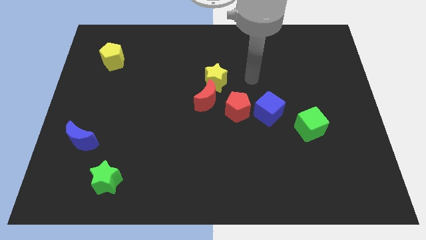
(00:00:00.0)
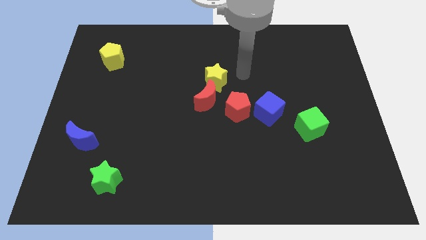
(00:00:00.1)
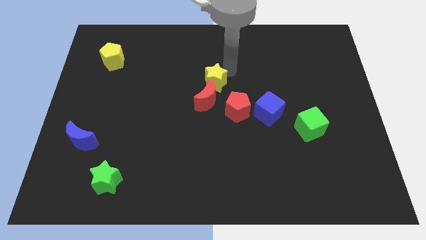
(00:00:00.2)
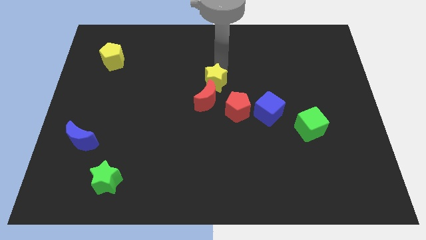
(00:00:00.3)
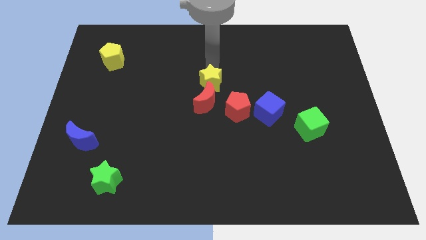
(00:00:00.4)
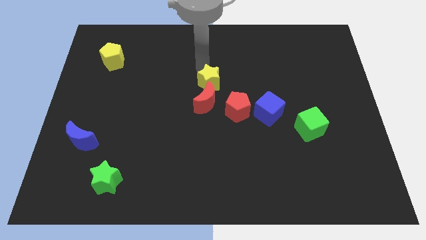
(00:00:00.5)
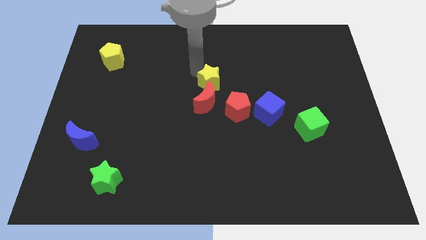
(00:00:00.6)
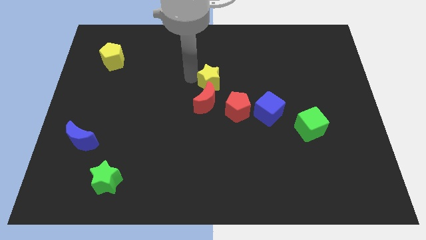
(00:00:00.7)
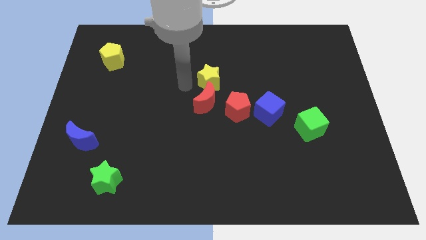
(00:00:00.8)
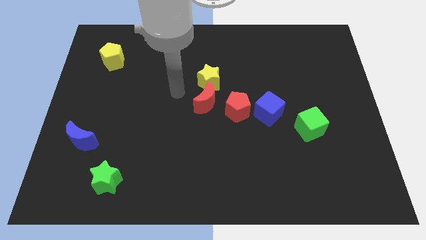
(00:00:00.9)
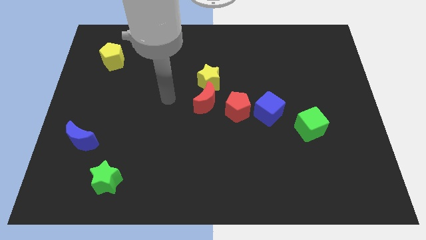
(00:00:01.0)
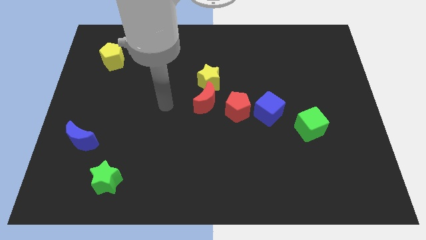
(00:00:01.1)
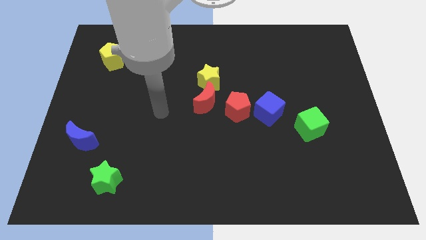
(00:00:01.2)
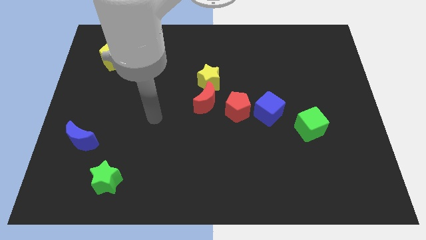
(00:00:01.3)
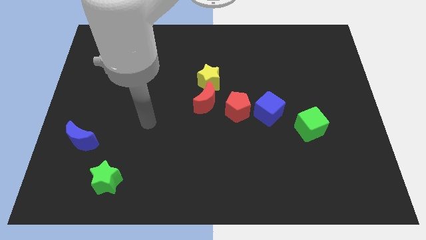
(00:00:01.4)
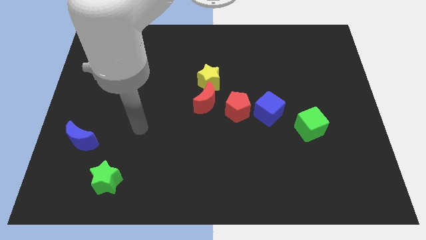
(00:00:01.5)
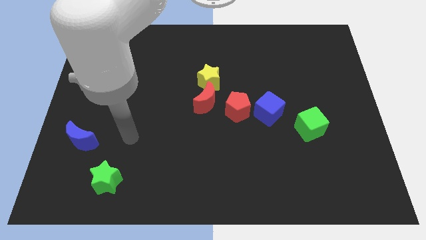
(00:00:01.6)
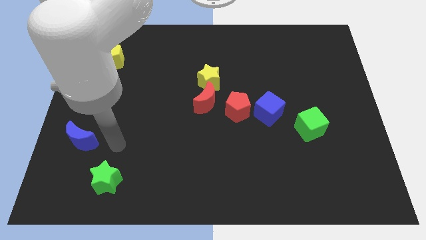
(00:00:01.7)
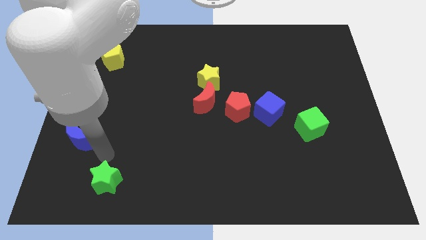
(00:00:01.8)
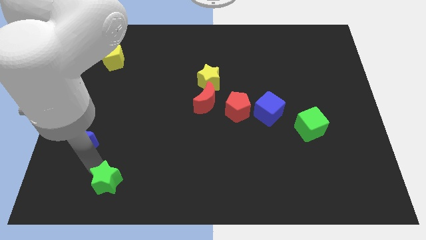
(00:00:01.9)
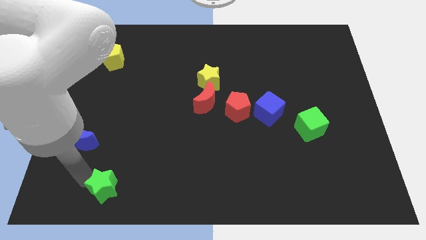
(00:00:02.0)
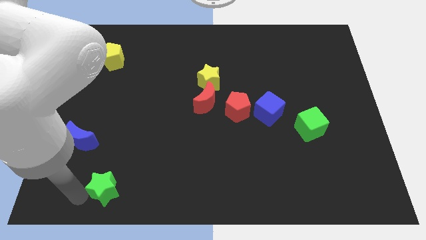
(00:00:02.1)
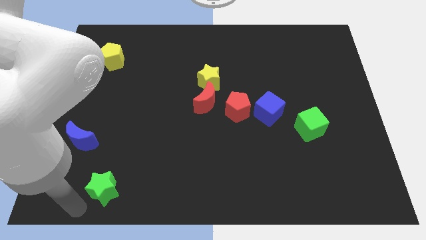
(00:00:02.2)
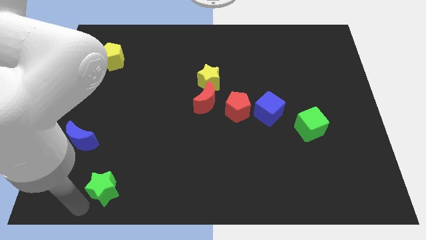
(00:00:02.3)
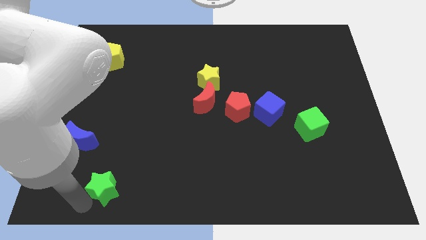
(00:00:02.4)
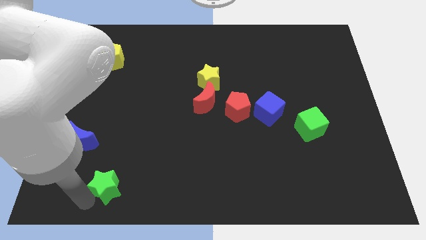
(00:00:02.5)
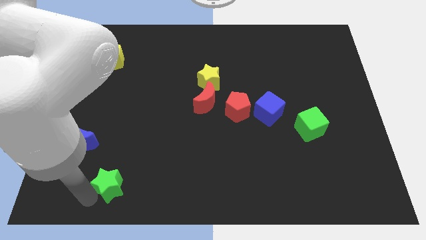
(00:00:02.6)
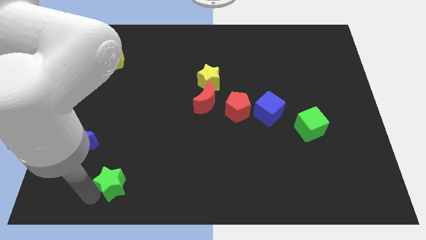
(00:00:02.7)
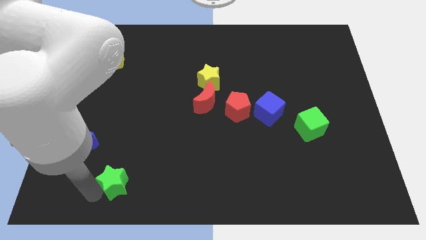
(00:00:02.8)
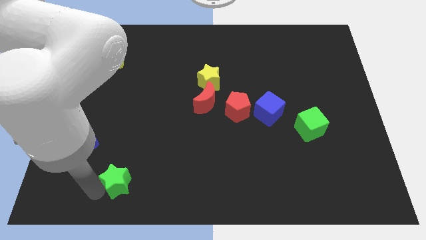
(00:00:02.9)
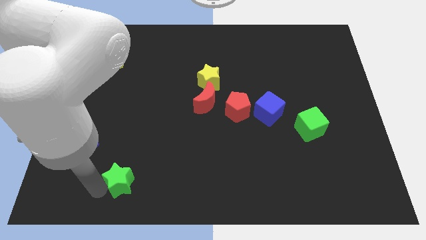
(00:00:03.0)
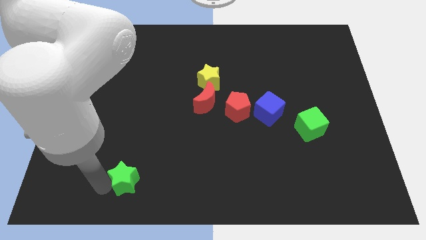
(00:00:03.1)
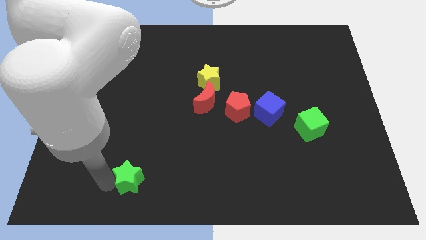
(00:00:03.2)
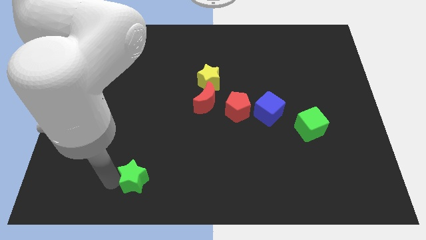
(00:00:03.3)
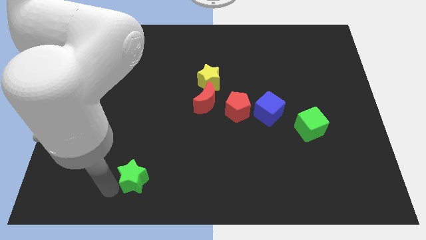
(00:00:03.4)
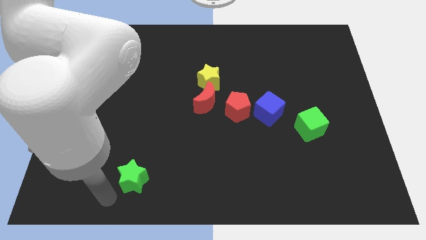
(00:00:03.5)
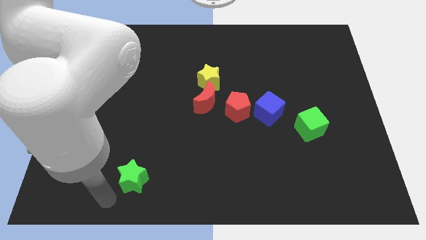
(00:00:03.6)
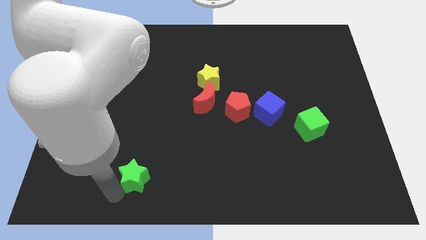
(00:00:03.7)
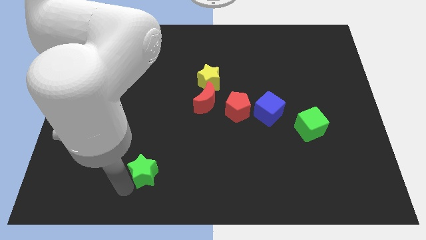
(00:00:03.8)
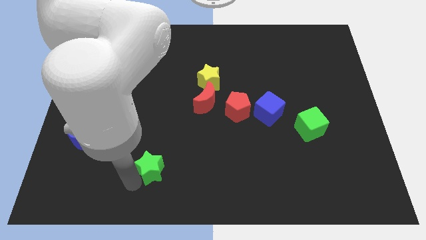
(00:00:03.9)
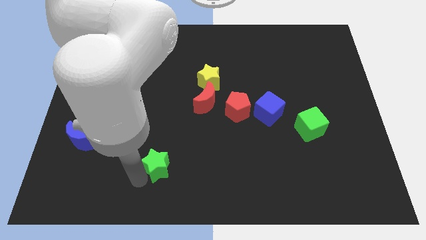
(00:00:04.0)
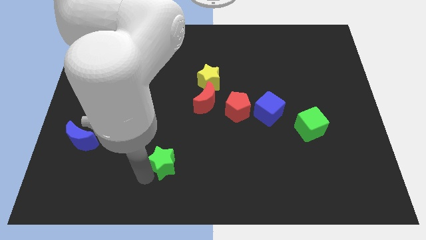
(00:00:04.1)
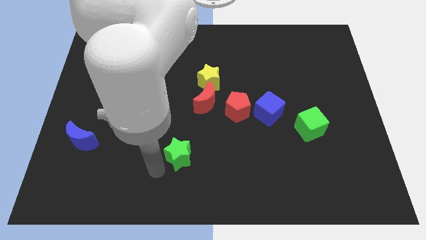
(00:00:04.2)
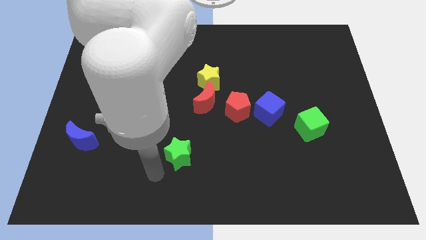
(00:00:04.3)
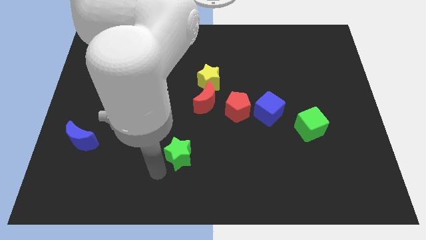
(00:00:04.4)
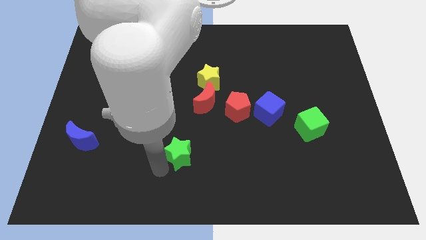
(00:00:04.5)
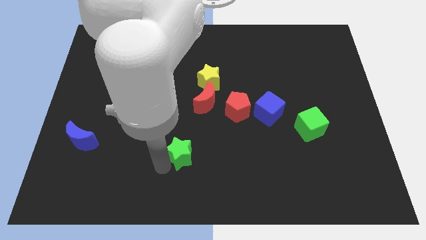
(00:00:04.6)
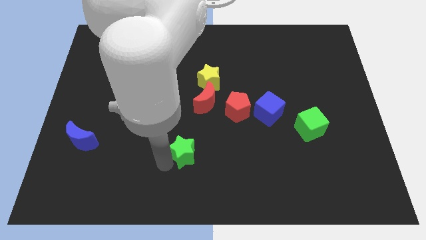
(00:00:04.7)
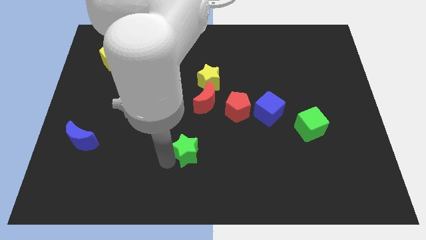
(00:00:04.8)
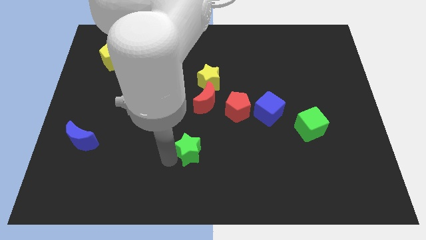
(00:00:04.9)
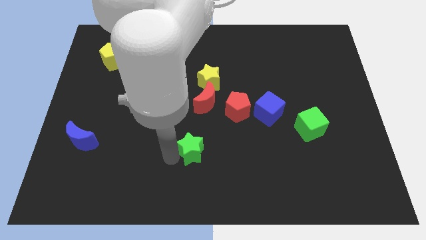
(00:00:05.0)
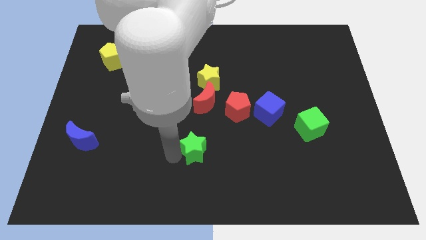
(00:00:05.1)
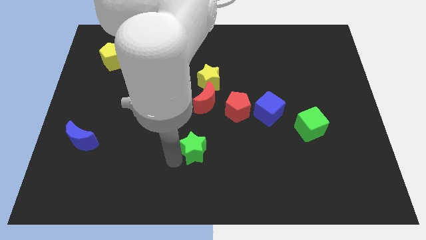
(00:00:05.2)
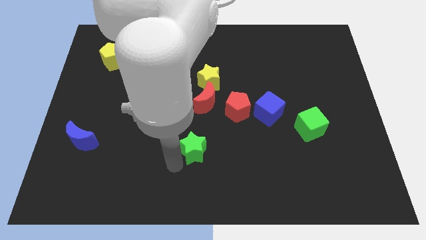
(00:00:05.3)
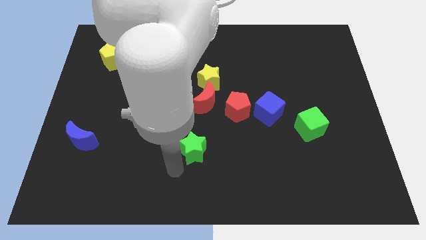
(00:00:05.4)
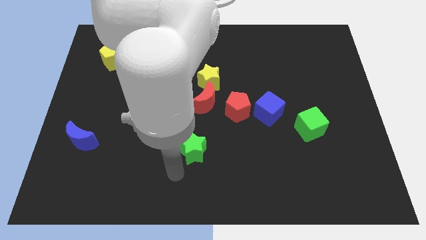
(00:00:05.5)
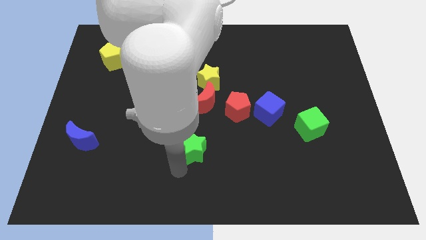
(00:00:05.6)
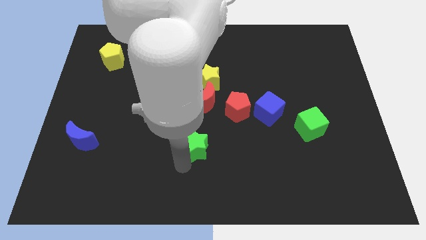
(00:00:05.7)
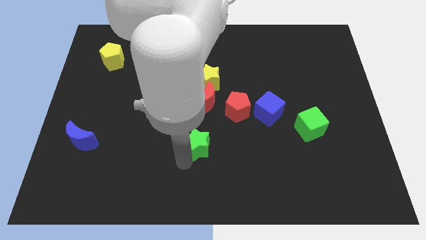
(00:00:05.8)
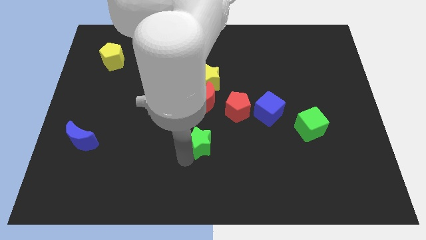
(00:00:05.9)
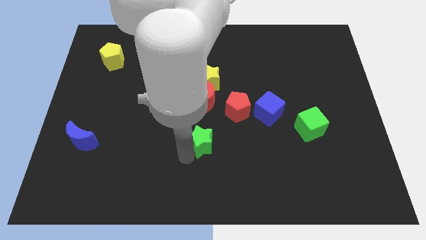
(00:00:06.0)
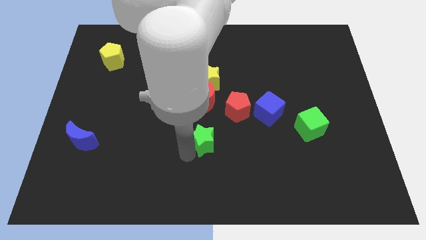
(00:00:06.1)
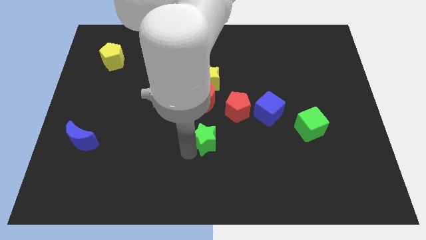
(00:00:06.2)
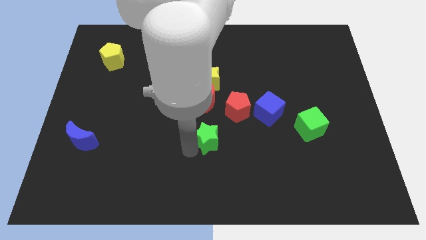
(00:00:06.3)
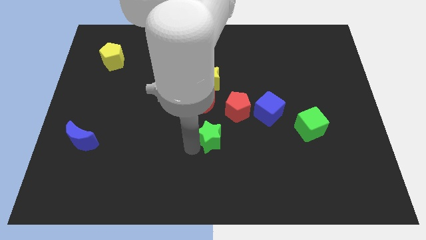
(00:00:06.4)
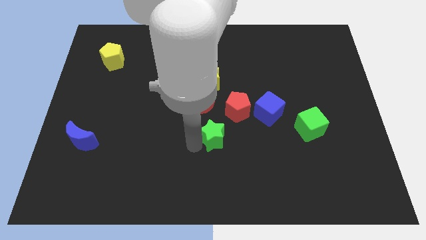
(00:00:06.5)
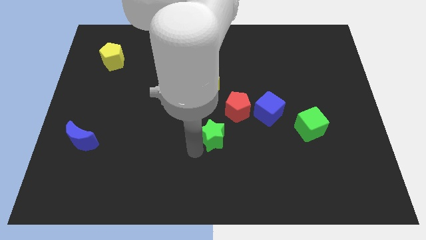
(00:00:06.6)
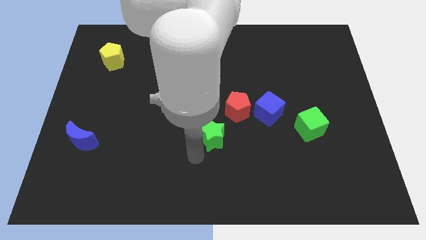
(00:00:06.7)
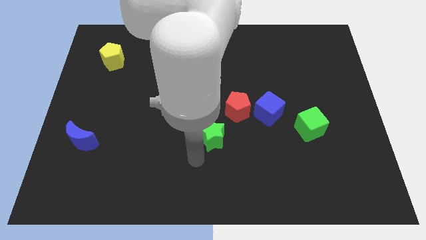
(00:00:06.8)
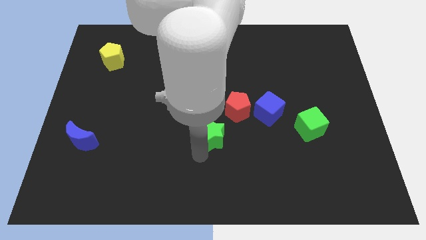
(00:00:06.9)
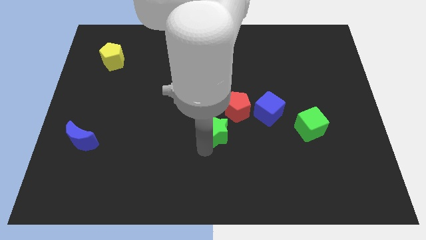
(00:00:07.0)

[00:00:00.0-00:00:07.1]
slide the green star to the bottom right side of the red moon
